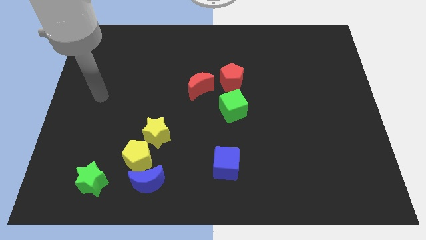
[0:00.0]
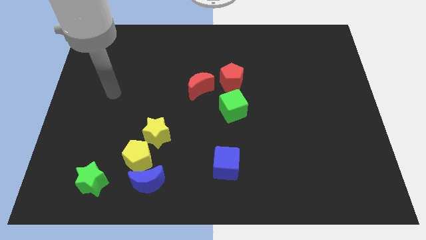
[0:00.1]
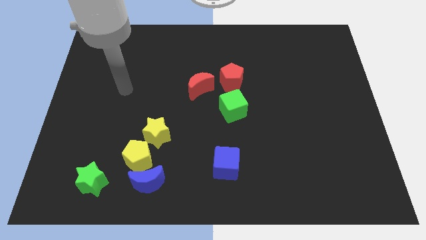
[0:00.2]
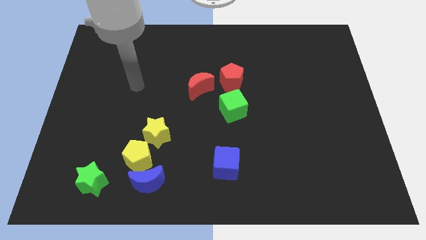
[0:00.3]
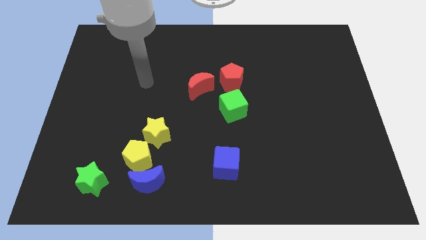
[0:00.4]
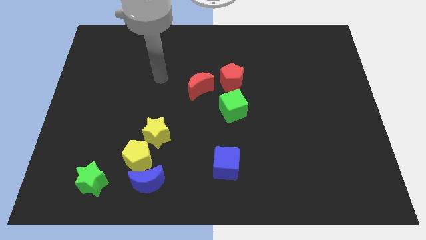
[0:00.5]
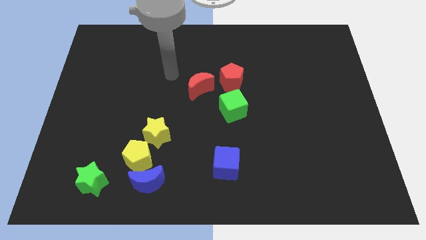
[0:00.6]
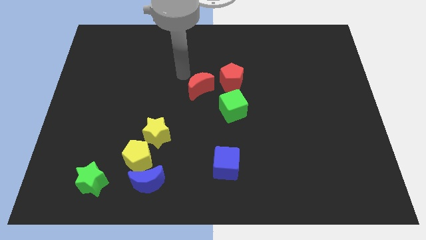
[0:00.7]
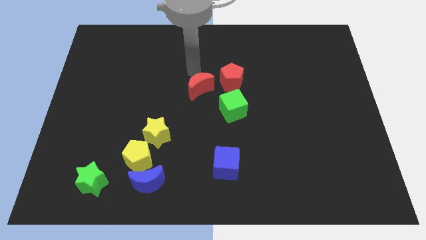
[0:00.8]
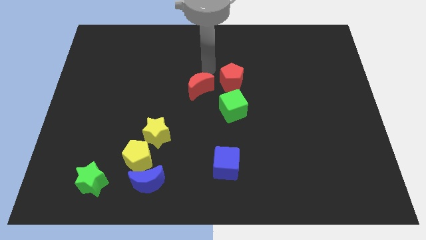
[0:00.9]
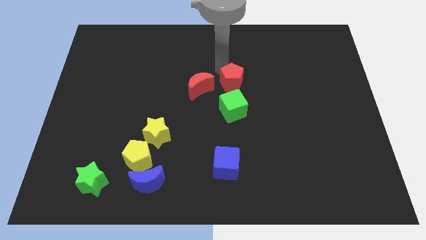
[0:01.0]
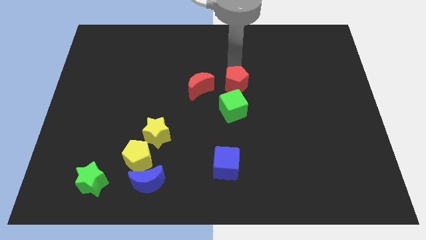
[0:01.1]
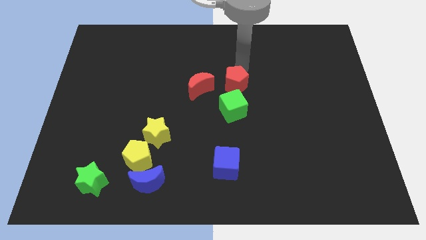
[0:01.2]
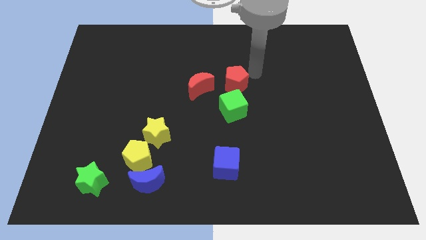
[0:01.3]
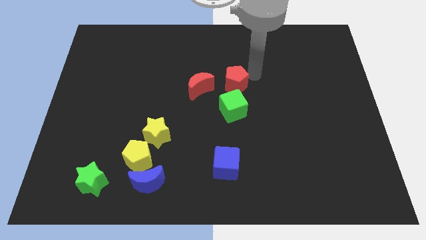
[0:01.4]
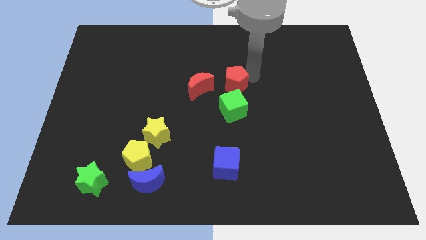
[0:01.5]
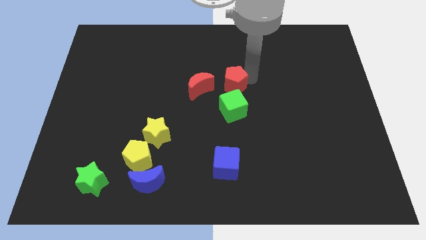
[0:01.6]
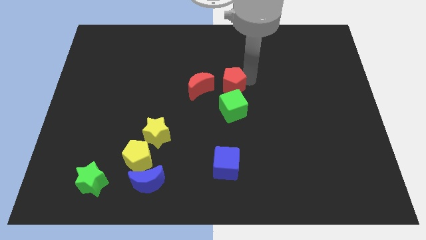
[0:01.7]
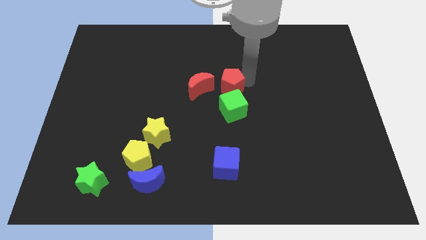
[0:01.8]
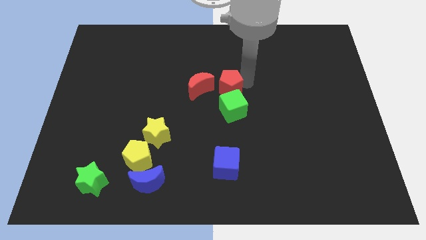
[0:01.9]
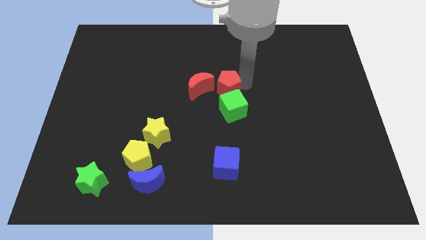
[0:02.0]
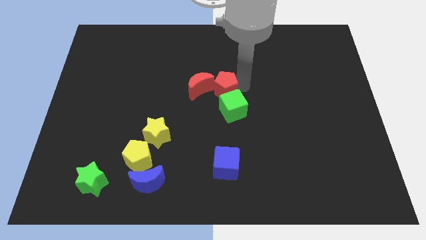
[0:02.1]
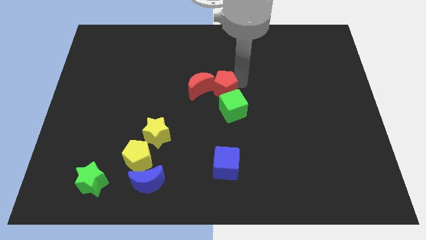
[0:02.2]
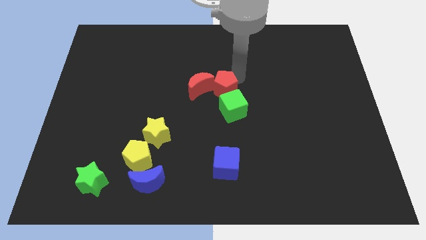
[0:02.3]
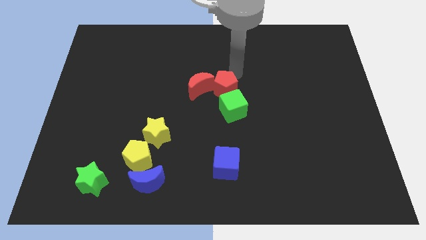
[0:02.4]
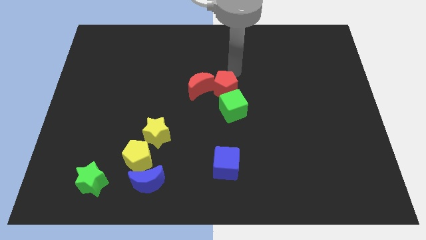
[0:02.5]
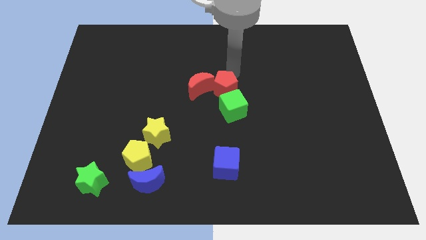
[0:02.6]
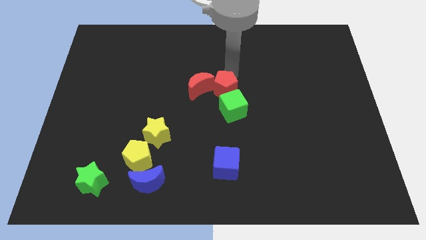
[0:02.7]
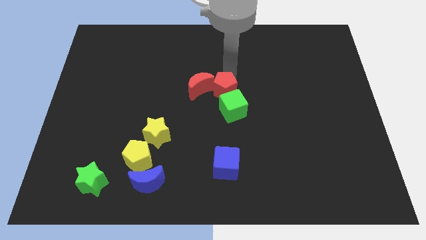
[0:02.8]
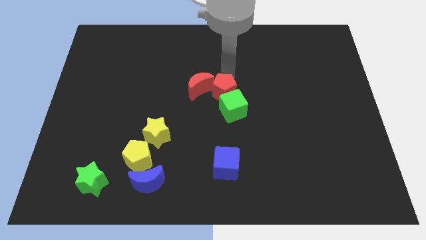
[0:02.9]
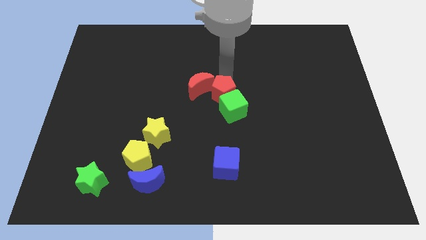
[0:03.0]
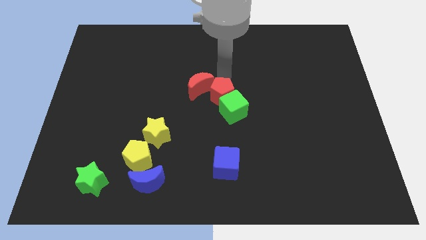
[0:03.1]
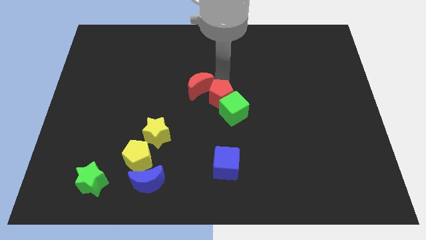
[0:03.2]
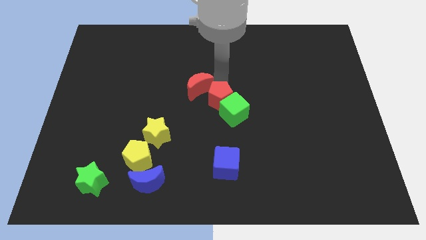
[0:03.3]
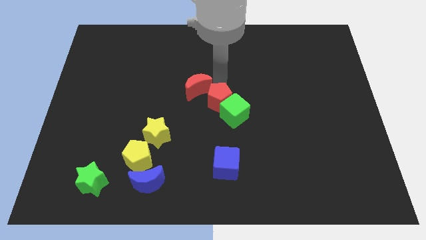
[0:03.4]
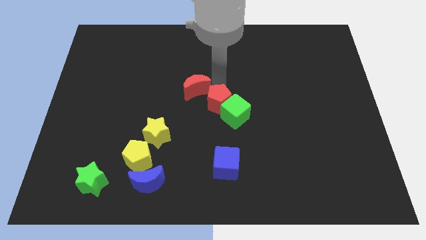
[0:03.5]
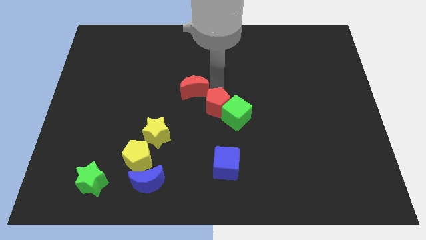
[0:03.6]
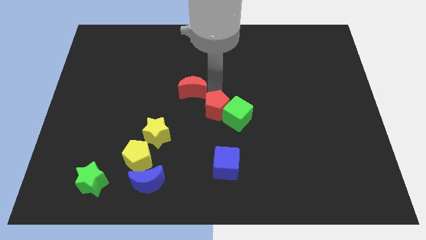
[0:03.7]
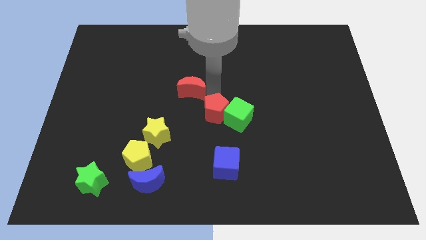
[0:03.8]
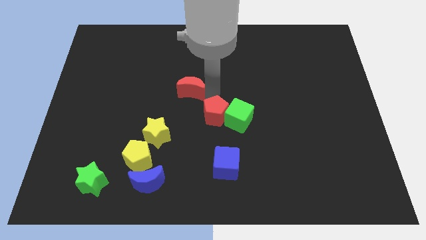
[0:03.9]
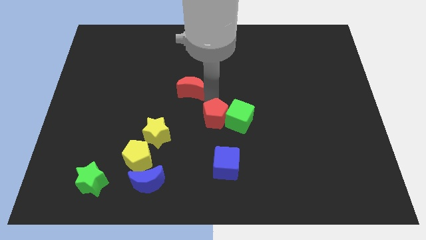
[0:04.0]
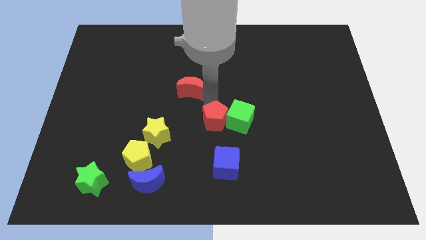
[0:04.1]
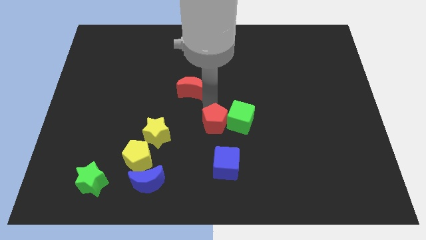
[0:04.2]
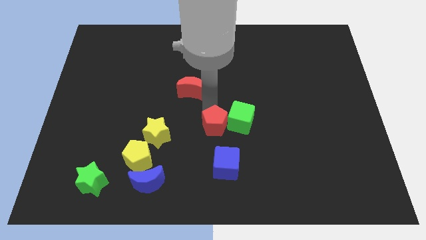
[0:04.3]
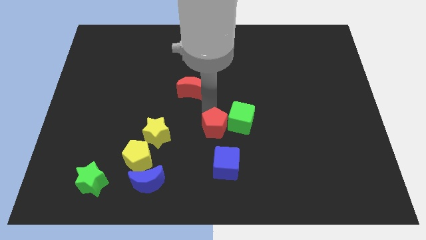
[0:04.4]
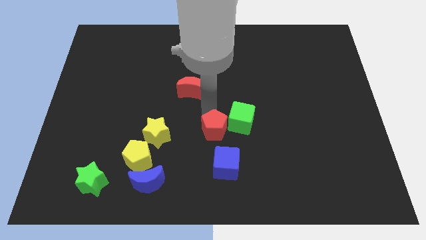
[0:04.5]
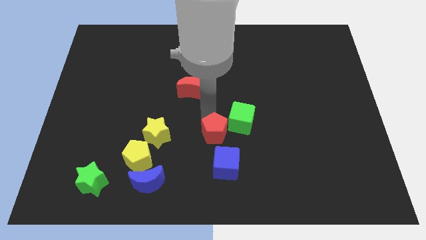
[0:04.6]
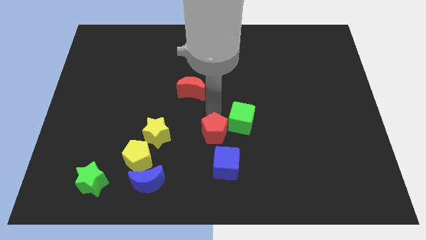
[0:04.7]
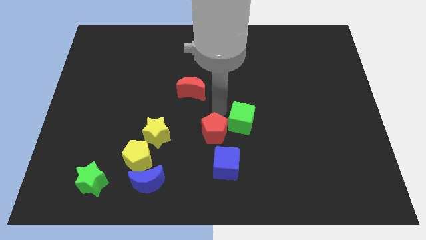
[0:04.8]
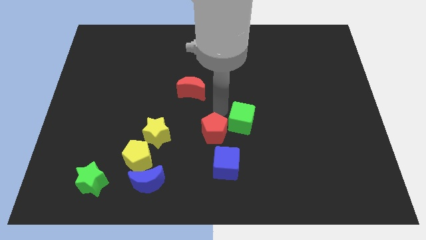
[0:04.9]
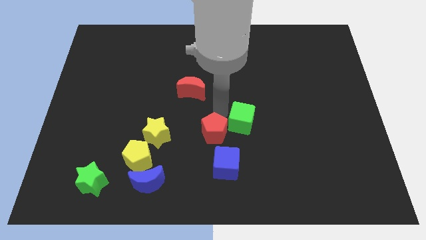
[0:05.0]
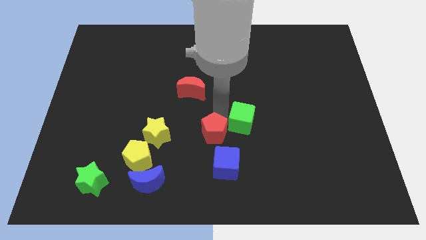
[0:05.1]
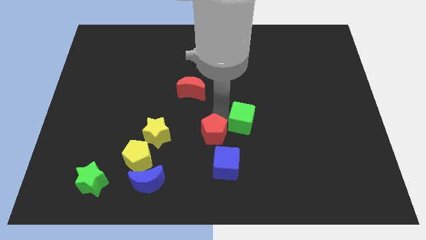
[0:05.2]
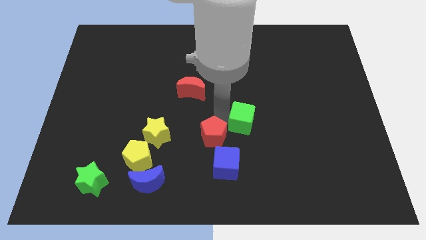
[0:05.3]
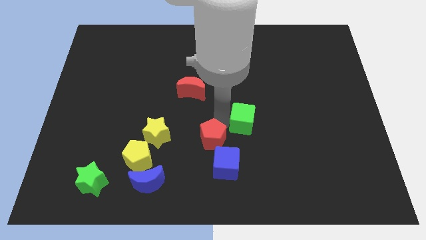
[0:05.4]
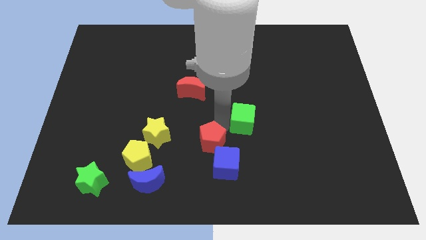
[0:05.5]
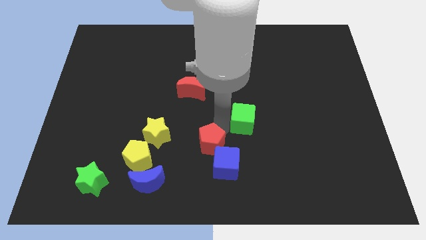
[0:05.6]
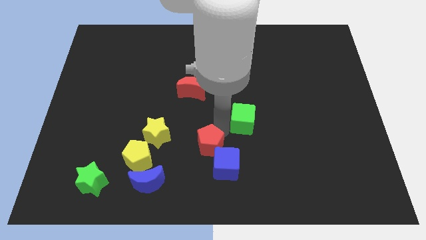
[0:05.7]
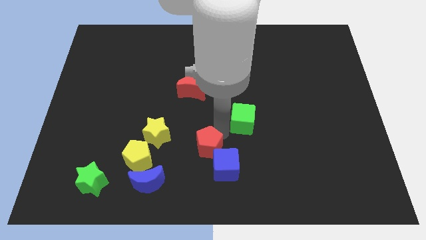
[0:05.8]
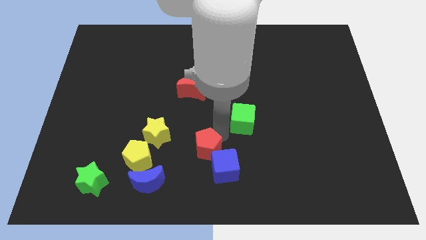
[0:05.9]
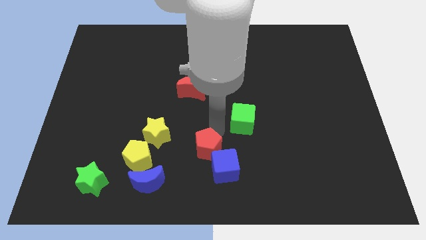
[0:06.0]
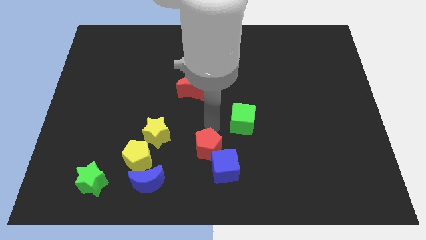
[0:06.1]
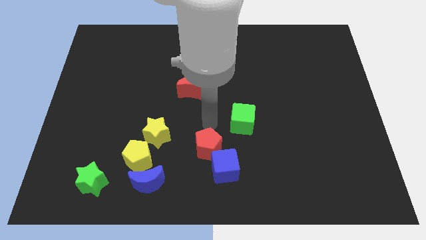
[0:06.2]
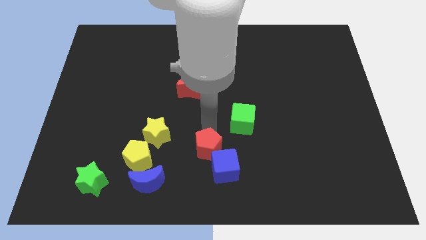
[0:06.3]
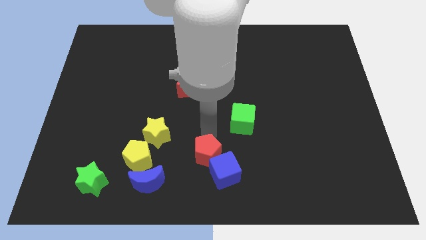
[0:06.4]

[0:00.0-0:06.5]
move the red pentagon to the bottom
